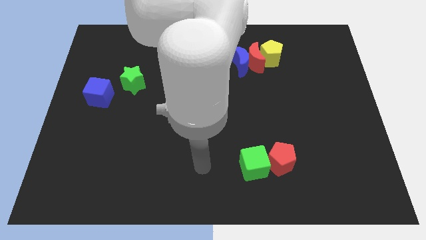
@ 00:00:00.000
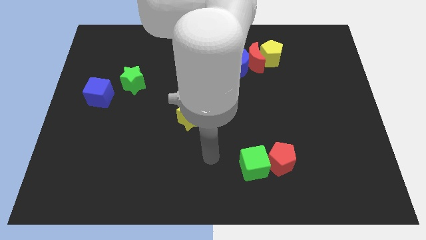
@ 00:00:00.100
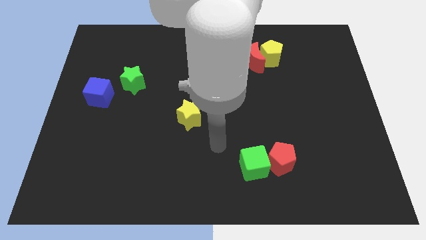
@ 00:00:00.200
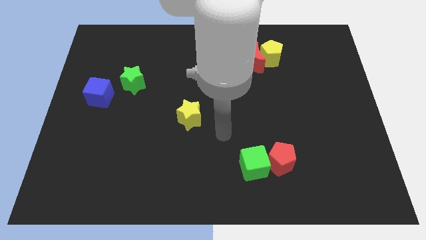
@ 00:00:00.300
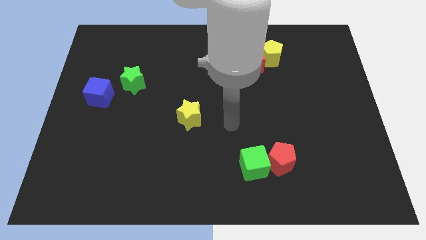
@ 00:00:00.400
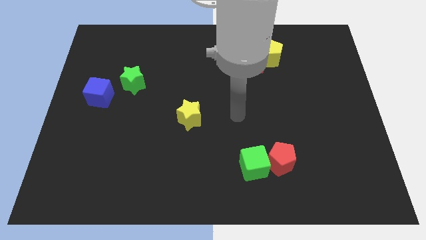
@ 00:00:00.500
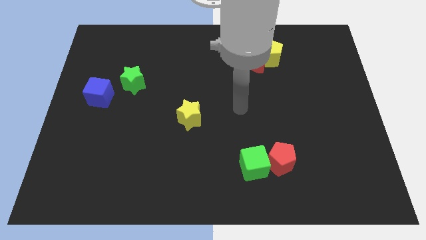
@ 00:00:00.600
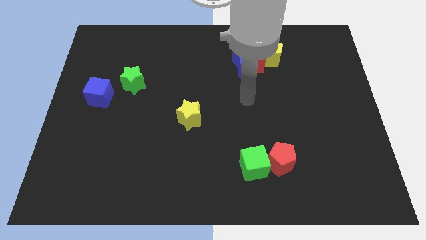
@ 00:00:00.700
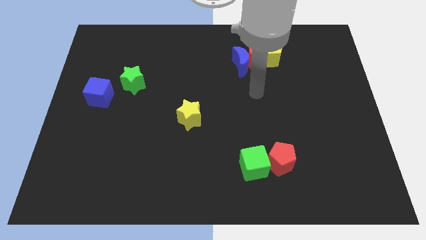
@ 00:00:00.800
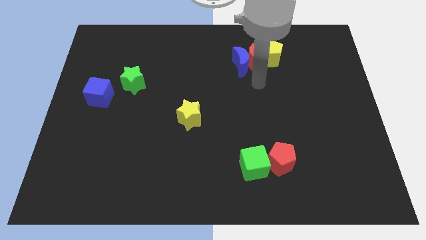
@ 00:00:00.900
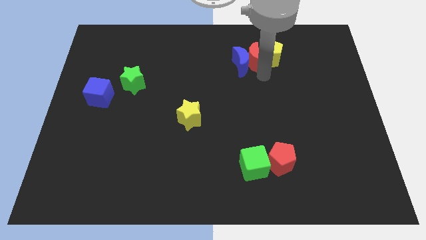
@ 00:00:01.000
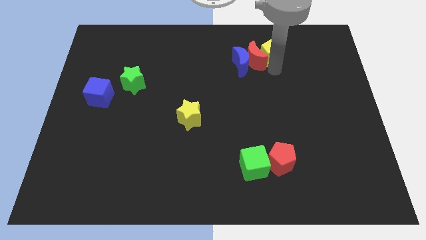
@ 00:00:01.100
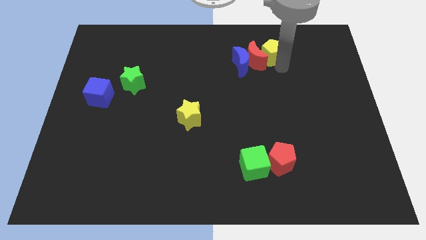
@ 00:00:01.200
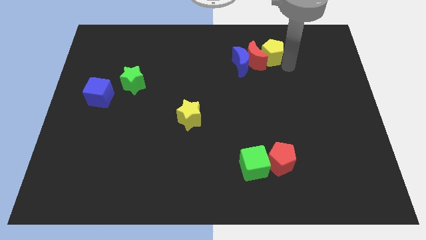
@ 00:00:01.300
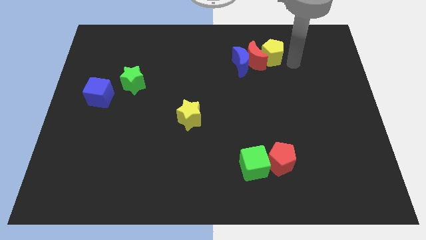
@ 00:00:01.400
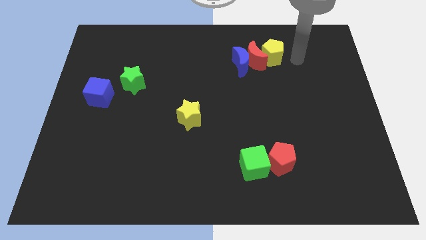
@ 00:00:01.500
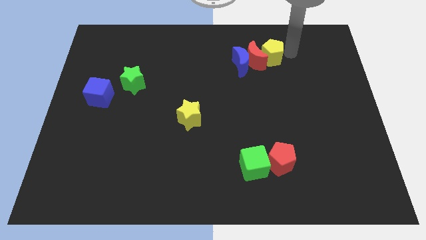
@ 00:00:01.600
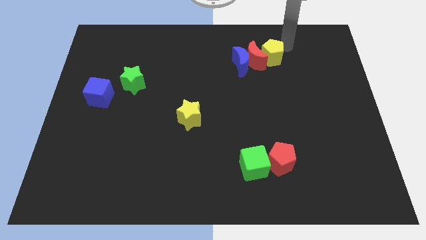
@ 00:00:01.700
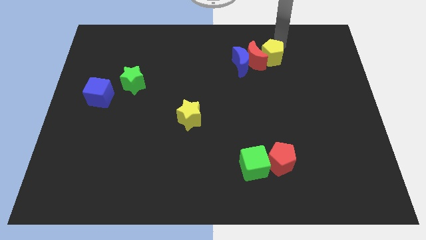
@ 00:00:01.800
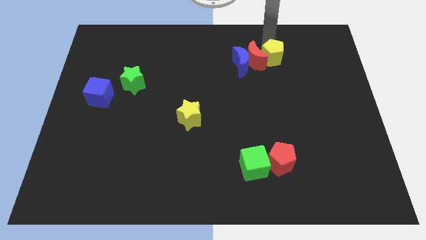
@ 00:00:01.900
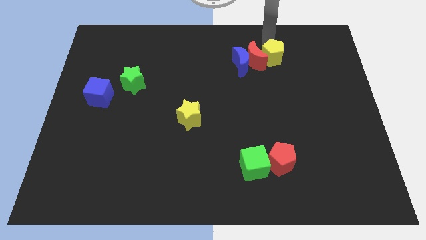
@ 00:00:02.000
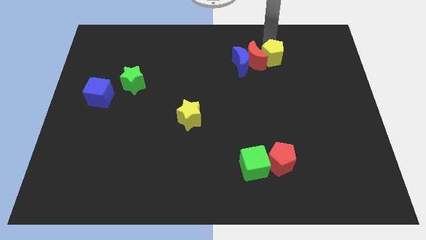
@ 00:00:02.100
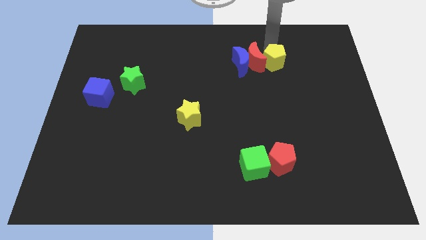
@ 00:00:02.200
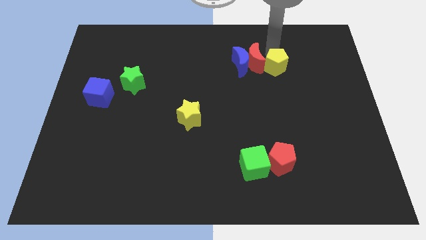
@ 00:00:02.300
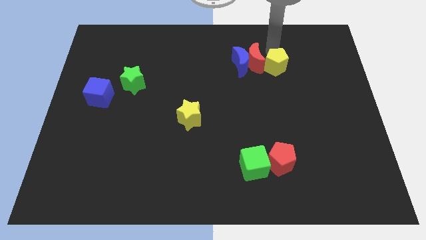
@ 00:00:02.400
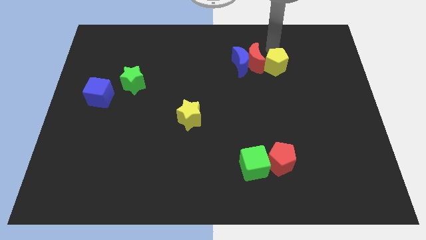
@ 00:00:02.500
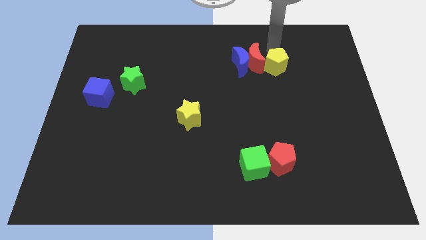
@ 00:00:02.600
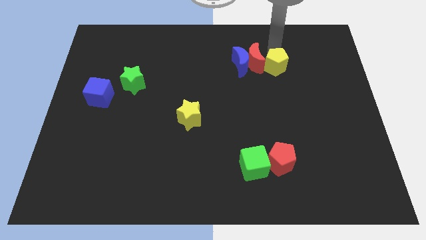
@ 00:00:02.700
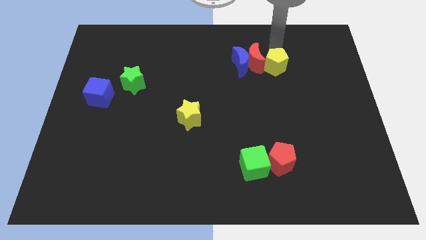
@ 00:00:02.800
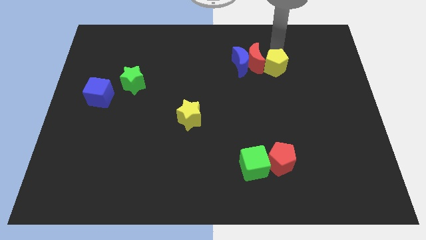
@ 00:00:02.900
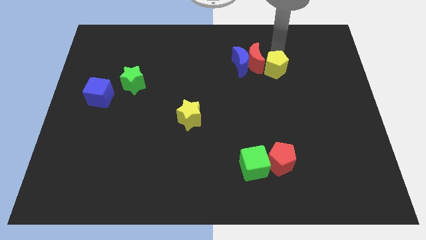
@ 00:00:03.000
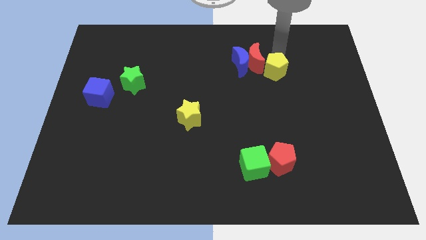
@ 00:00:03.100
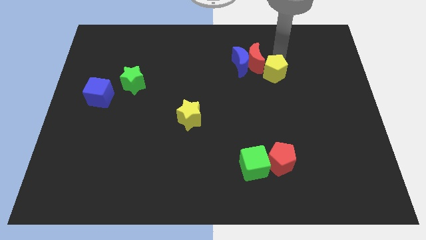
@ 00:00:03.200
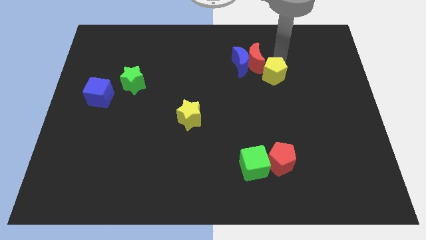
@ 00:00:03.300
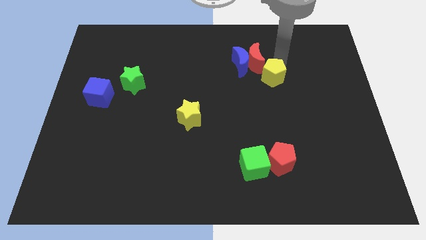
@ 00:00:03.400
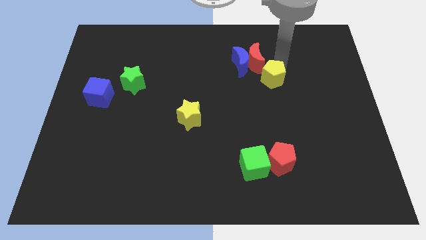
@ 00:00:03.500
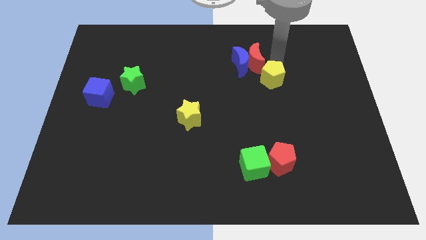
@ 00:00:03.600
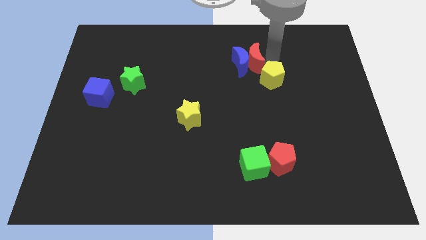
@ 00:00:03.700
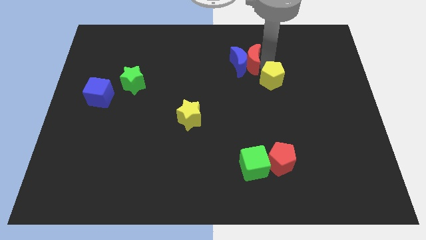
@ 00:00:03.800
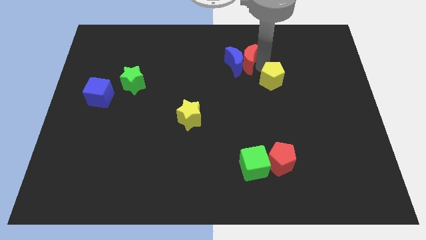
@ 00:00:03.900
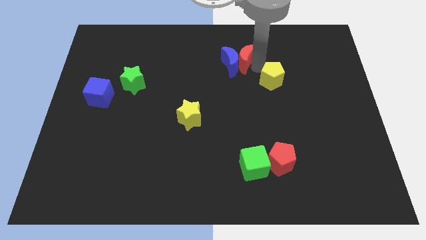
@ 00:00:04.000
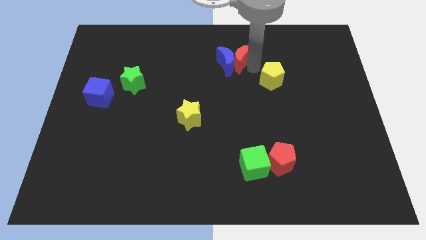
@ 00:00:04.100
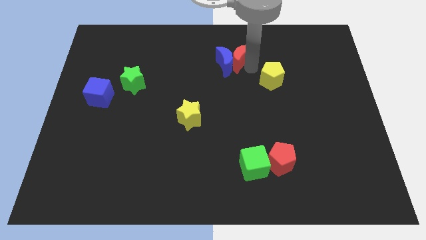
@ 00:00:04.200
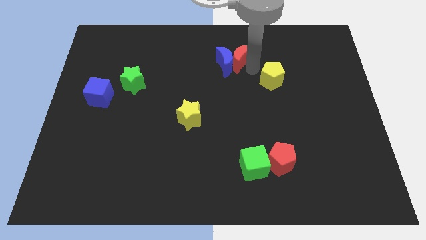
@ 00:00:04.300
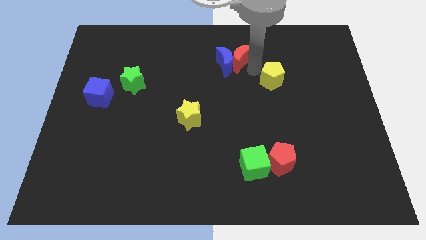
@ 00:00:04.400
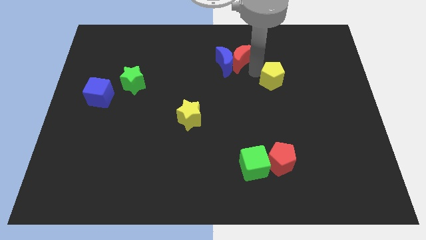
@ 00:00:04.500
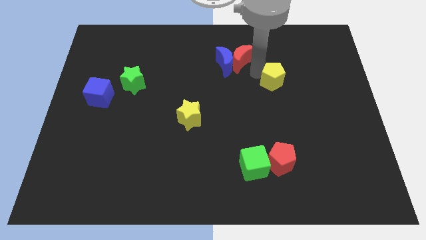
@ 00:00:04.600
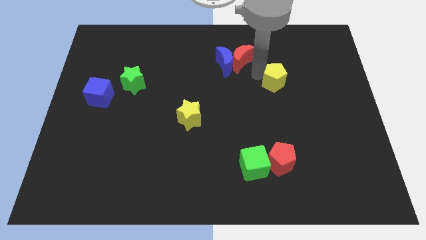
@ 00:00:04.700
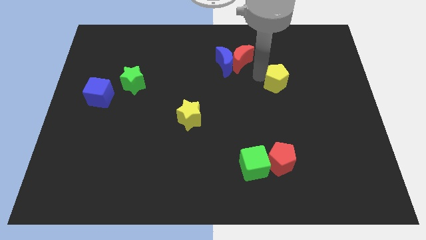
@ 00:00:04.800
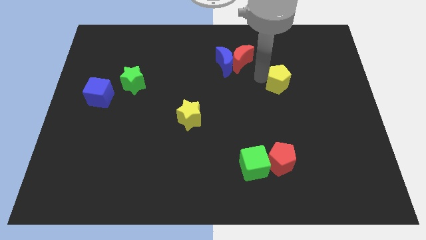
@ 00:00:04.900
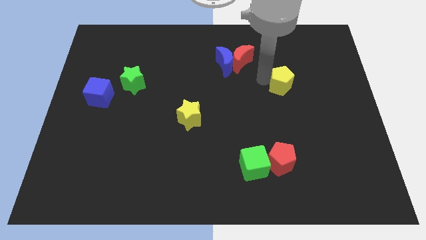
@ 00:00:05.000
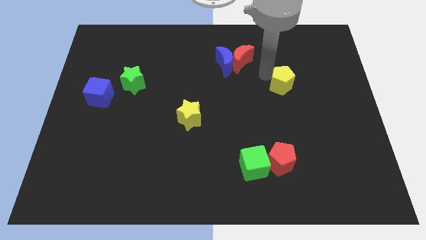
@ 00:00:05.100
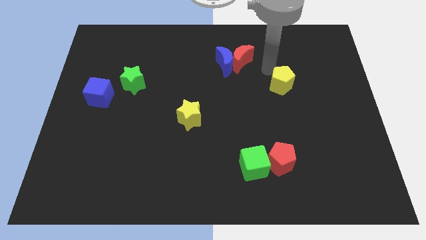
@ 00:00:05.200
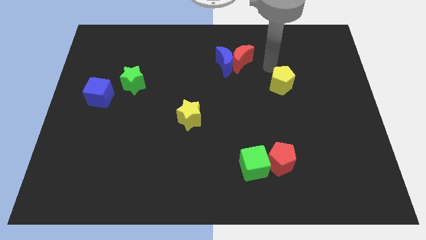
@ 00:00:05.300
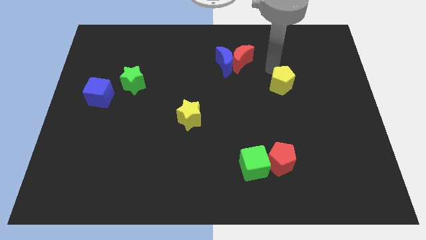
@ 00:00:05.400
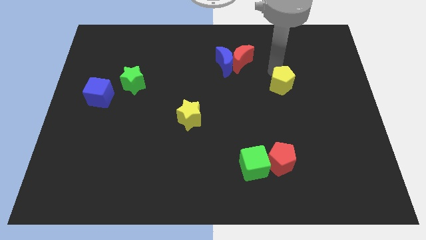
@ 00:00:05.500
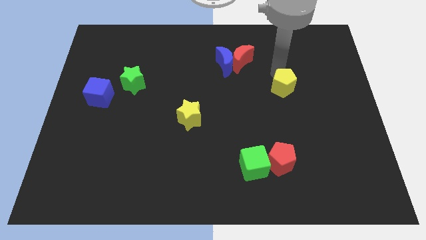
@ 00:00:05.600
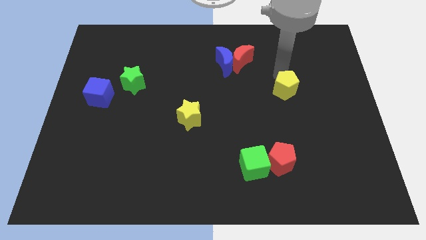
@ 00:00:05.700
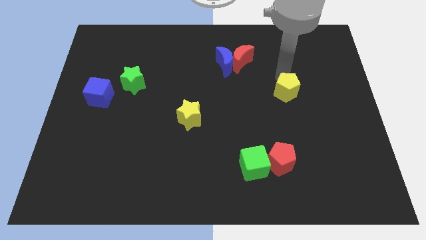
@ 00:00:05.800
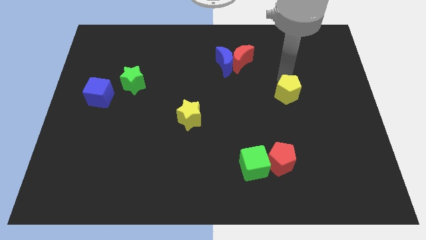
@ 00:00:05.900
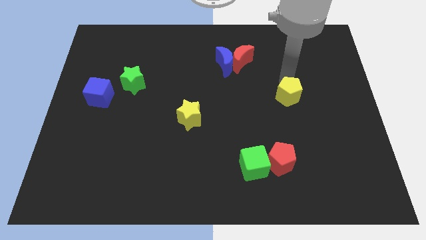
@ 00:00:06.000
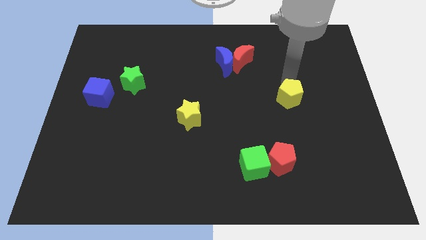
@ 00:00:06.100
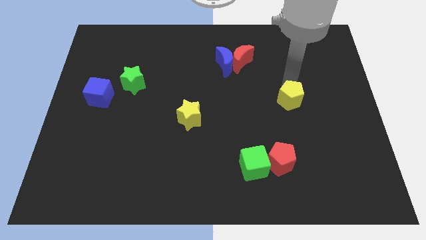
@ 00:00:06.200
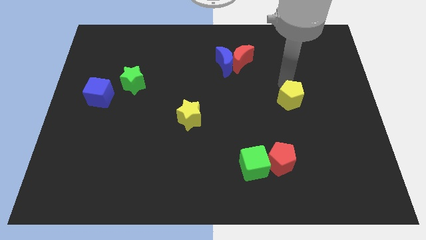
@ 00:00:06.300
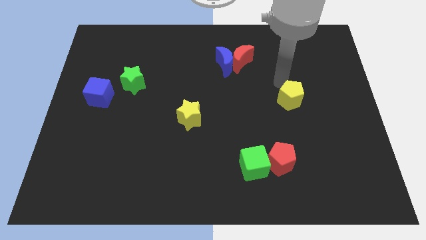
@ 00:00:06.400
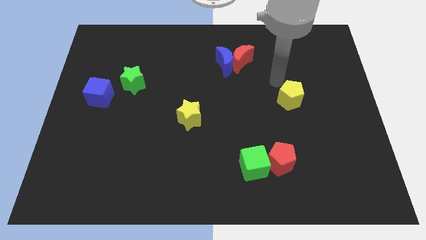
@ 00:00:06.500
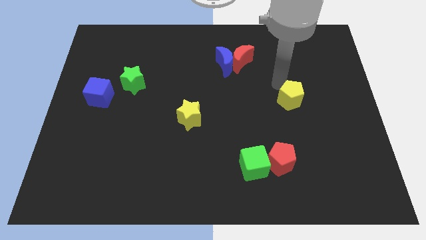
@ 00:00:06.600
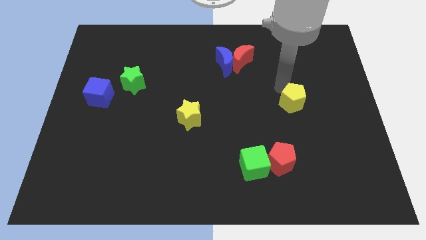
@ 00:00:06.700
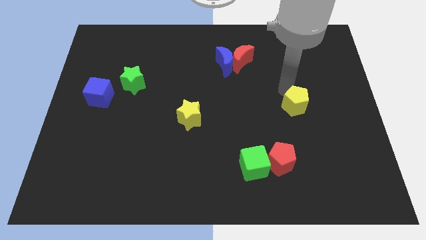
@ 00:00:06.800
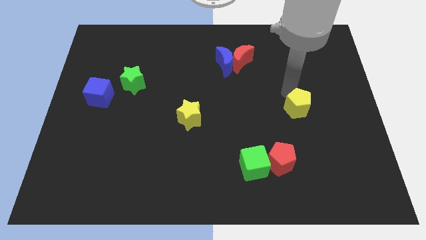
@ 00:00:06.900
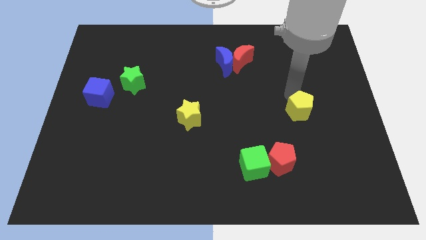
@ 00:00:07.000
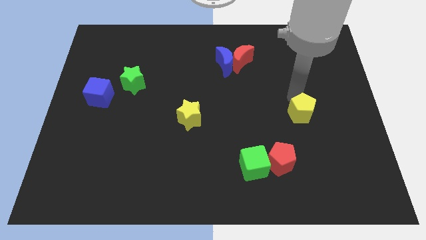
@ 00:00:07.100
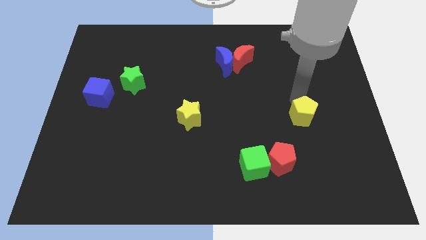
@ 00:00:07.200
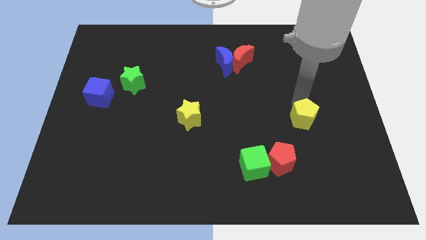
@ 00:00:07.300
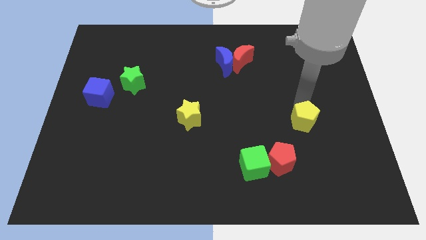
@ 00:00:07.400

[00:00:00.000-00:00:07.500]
push the yellow pentagon to the top right of the red pentagon
